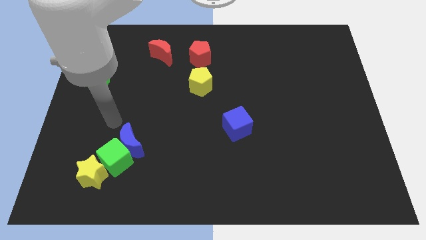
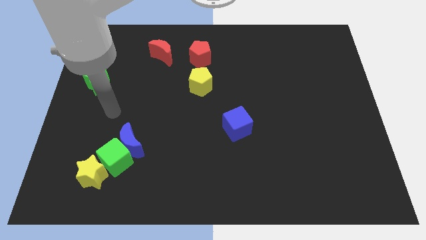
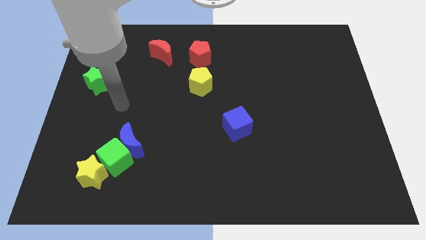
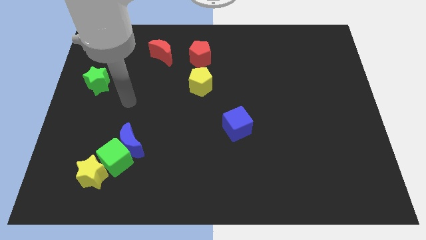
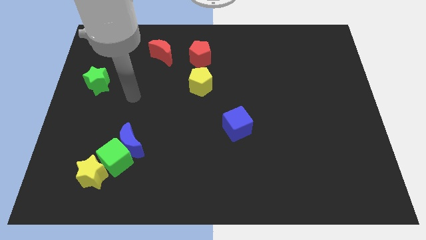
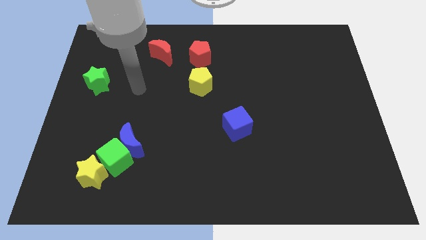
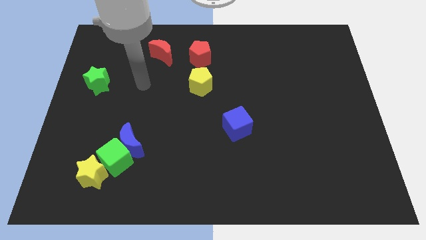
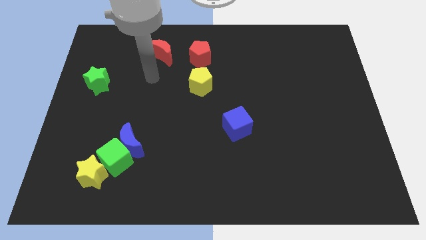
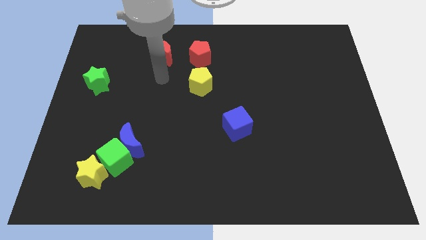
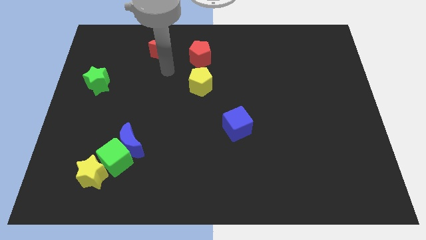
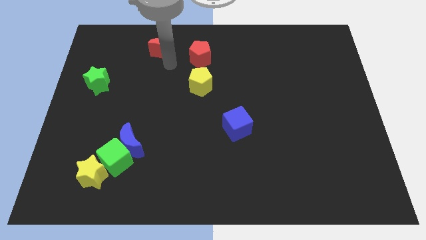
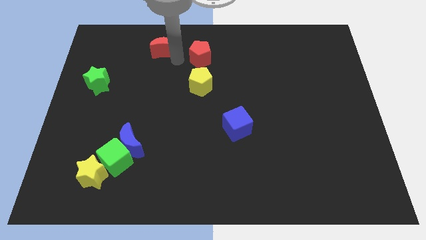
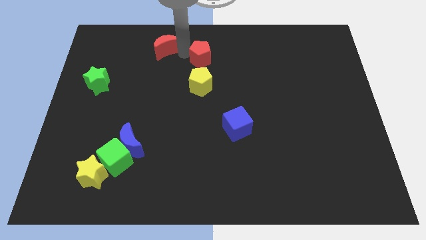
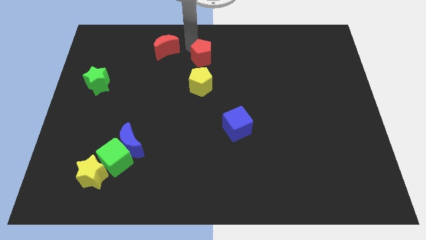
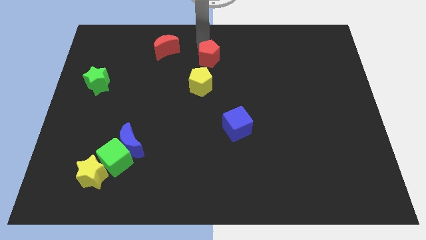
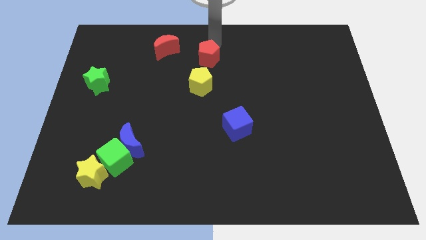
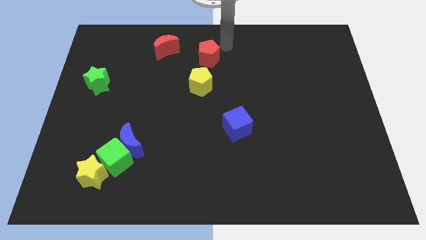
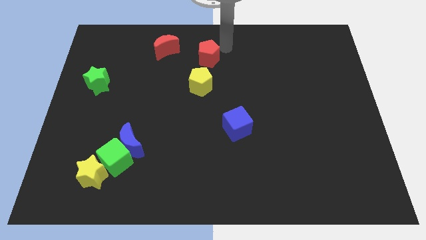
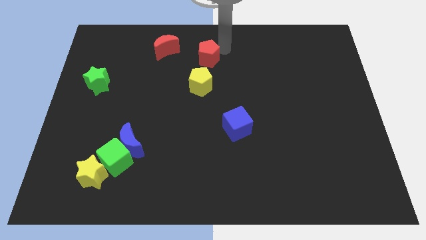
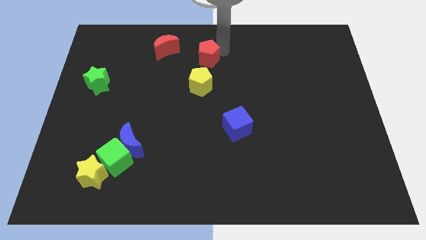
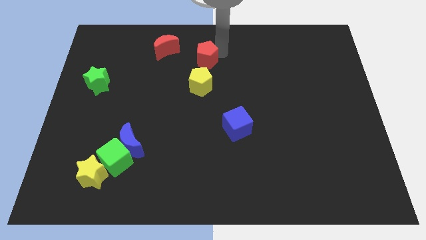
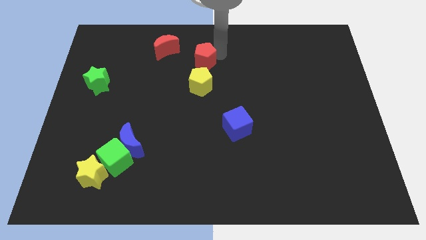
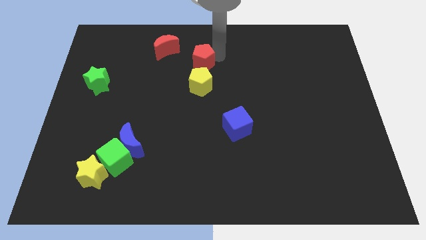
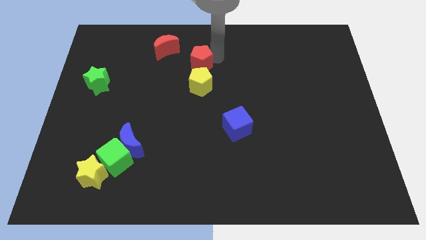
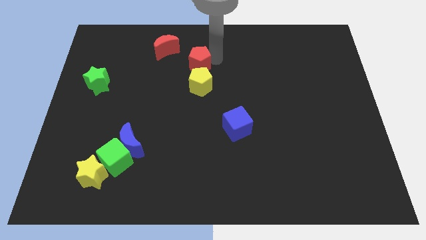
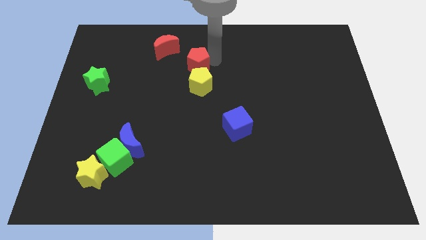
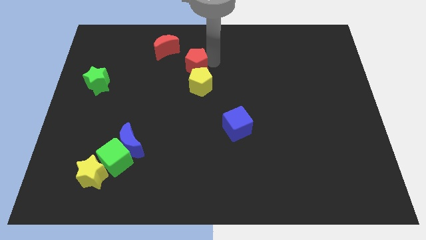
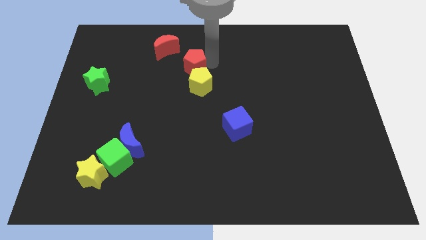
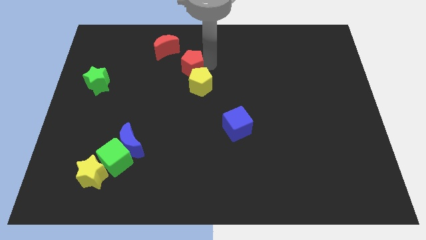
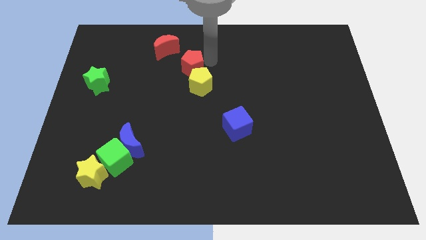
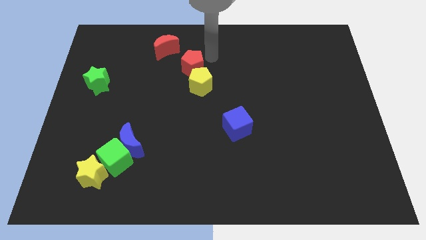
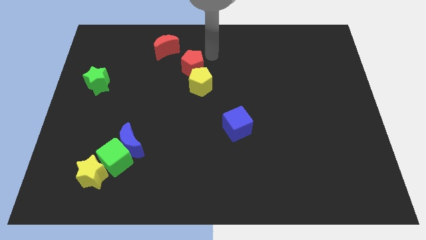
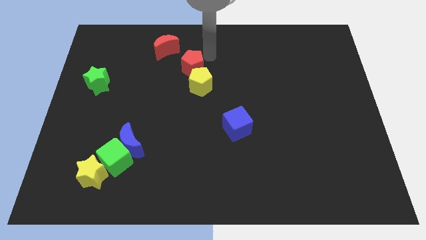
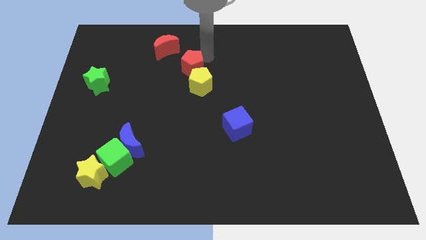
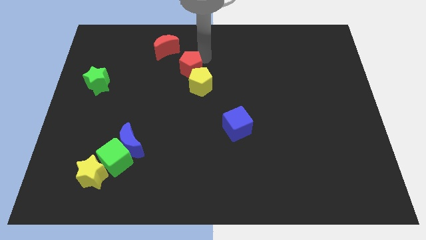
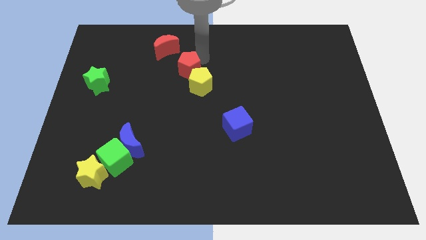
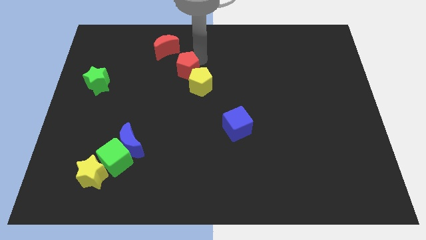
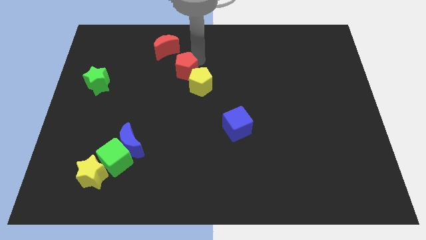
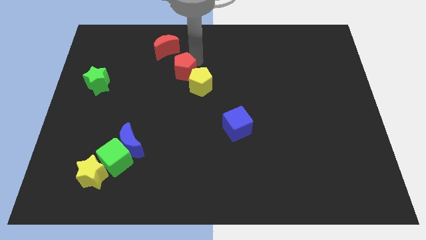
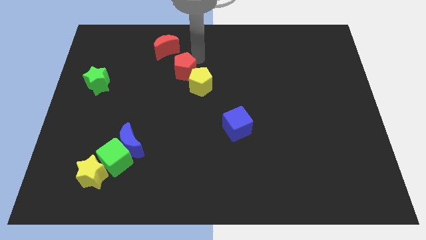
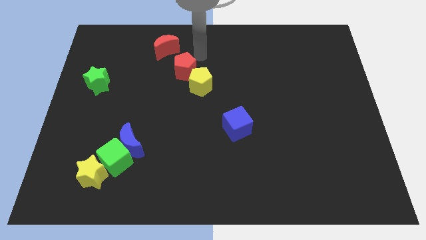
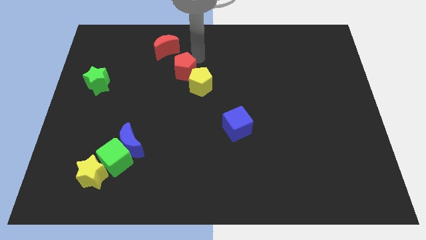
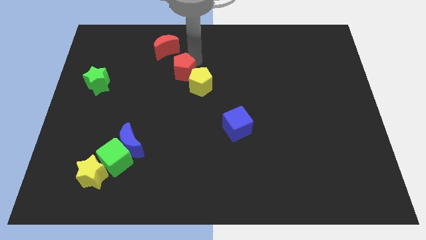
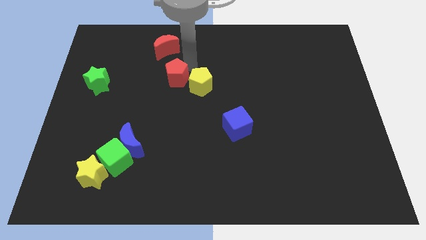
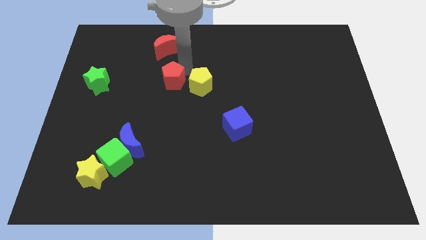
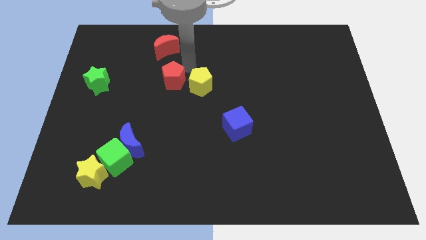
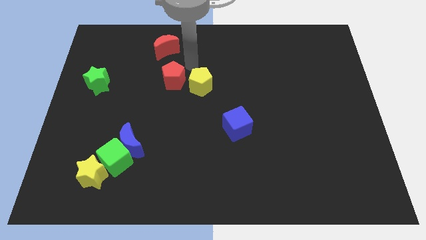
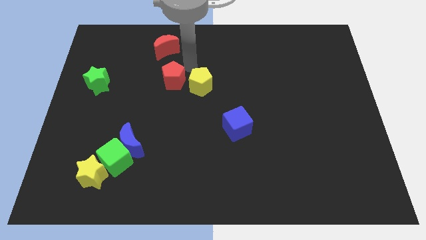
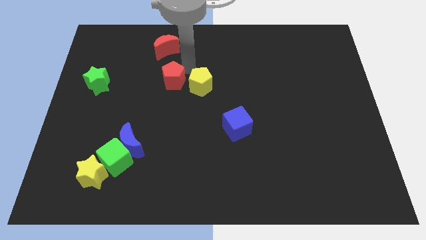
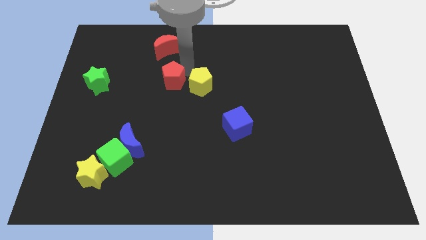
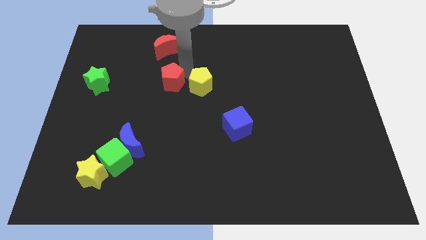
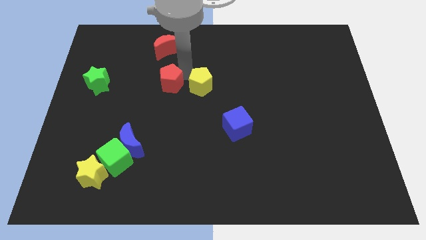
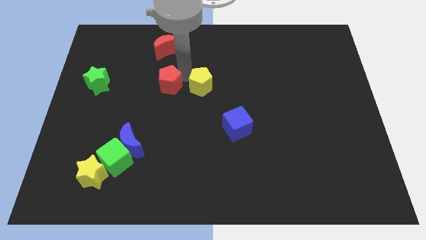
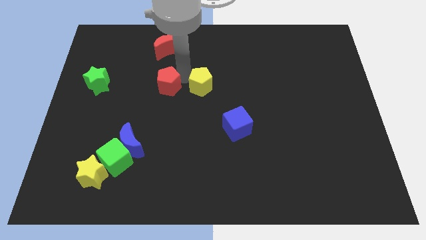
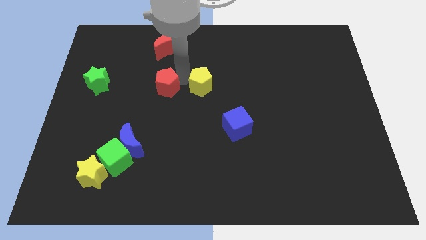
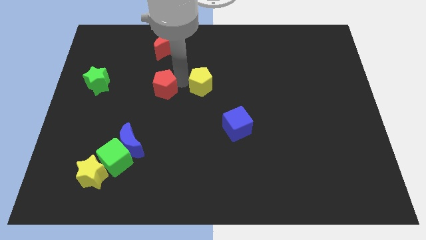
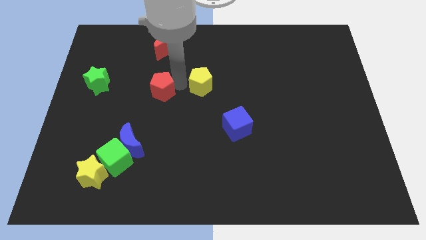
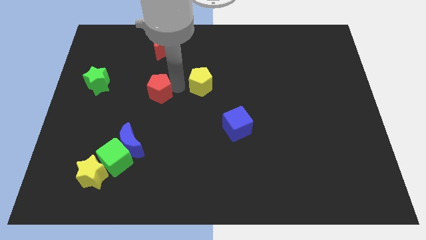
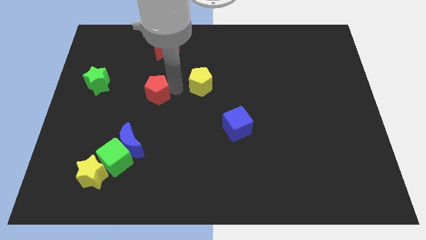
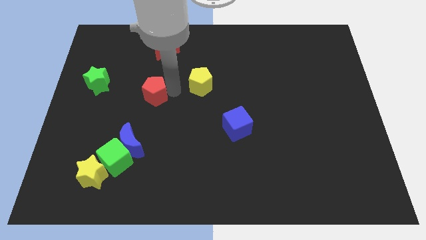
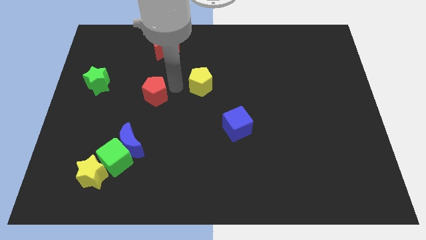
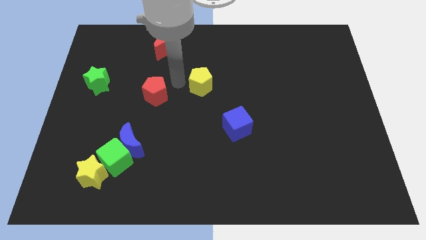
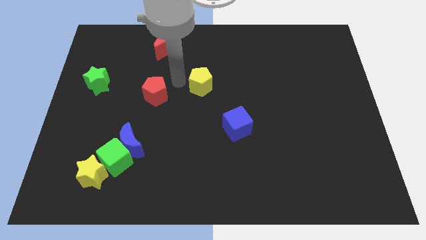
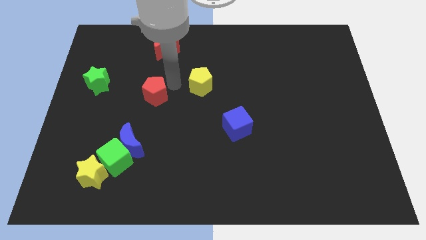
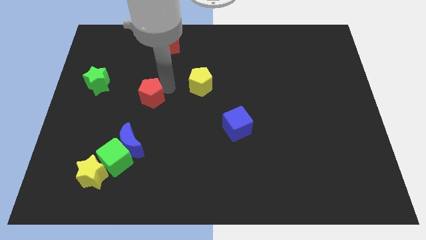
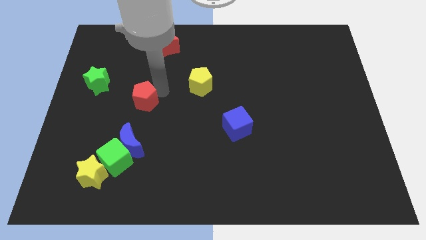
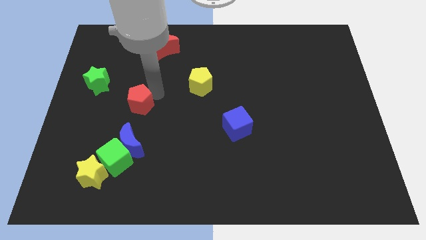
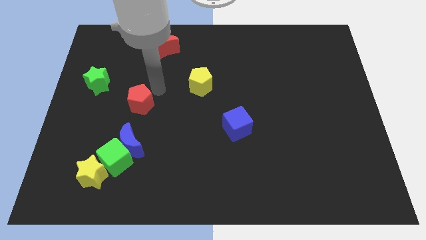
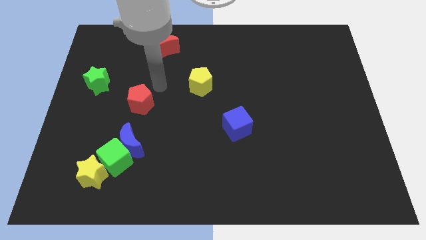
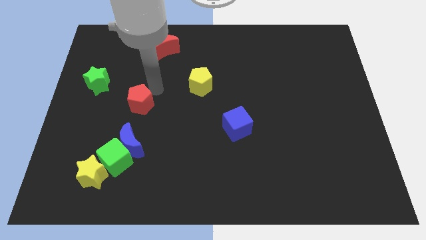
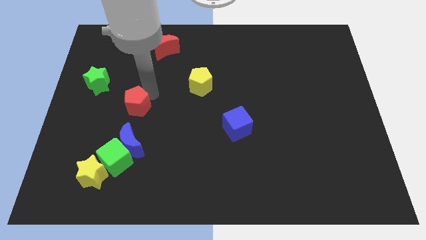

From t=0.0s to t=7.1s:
put the red pentagon to the top side of the green cube
